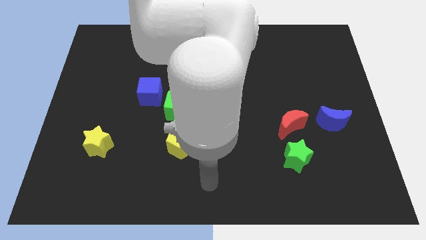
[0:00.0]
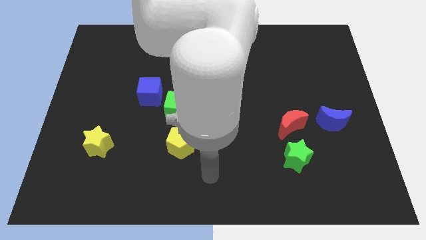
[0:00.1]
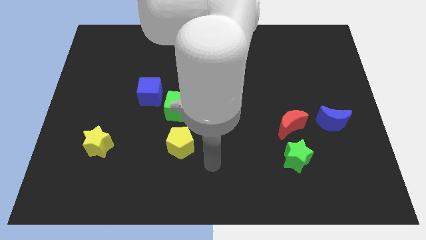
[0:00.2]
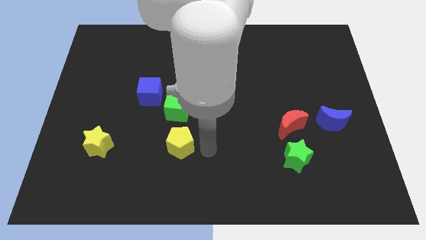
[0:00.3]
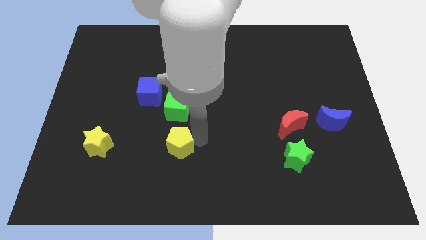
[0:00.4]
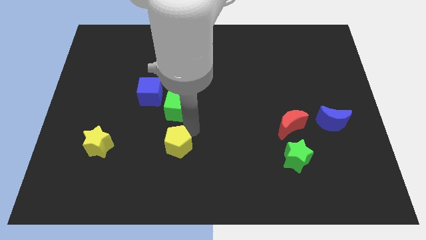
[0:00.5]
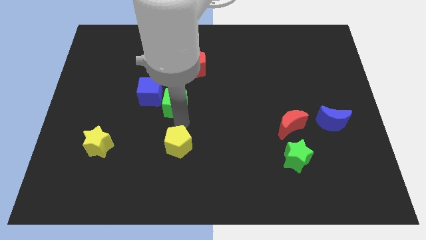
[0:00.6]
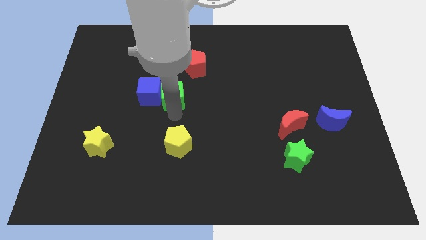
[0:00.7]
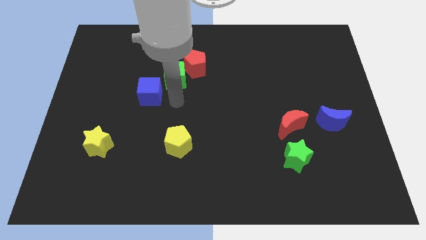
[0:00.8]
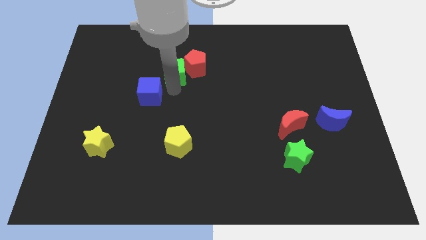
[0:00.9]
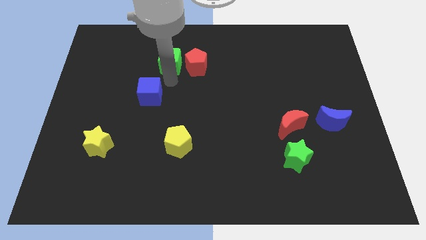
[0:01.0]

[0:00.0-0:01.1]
move the blue cube away from the green cube

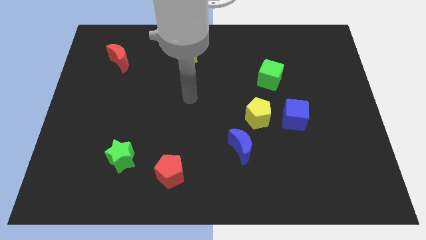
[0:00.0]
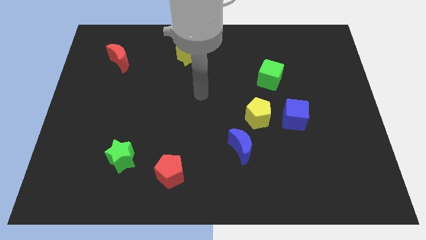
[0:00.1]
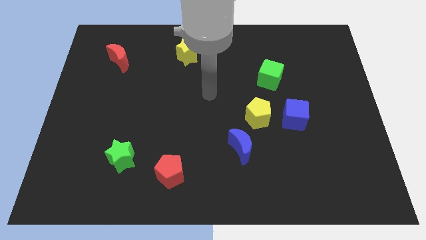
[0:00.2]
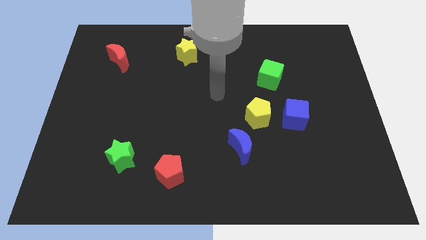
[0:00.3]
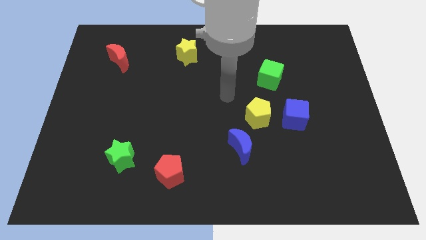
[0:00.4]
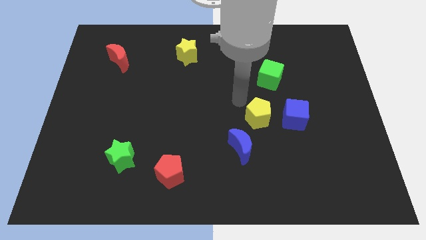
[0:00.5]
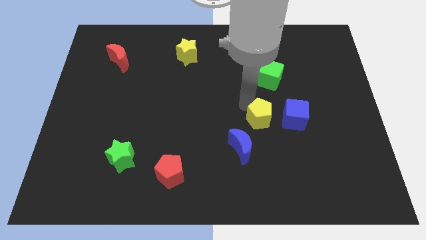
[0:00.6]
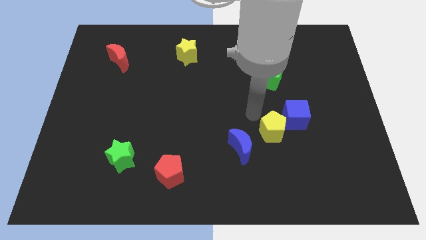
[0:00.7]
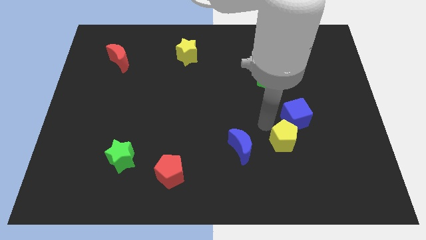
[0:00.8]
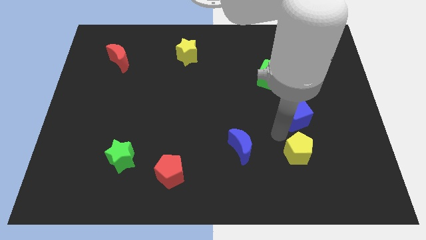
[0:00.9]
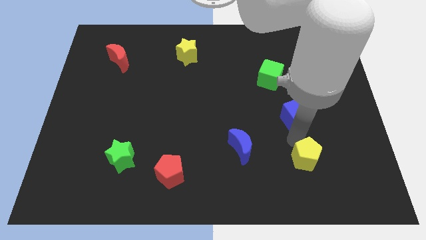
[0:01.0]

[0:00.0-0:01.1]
separate the blue cube from the yellow pentagon

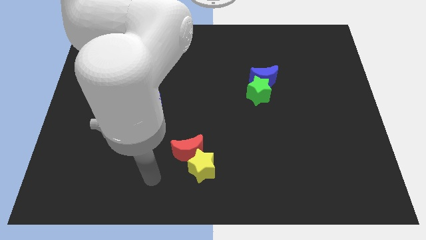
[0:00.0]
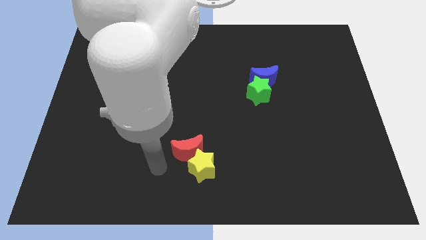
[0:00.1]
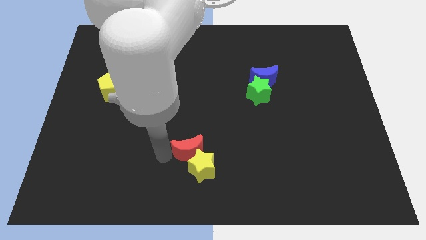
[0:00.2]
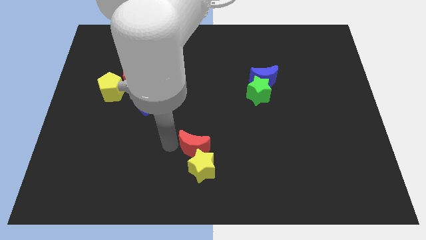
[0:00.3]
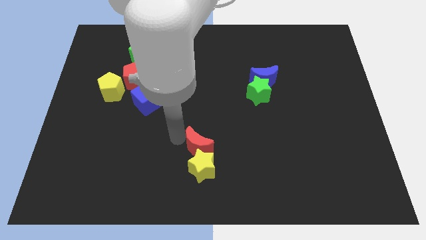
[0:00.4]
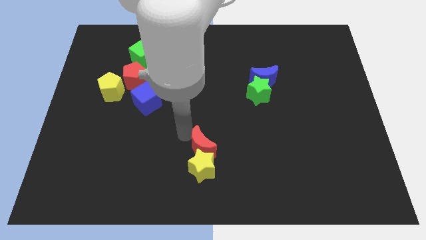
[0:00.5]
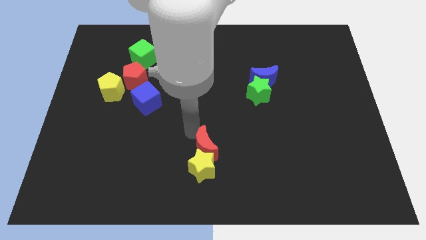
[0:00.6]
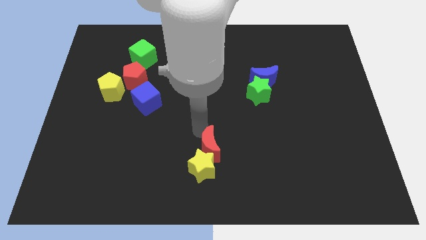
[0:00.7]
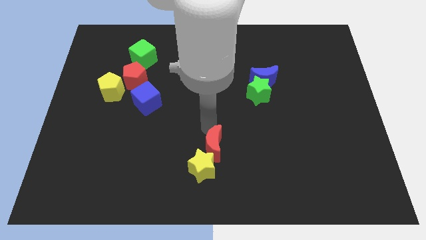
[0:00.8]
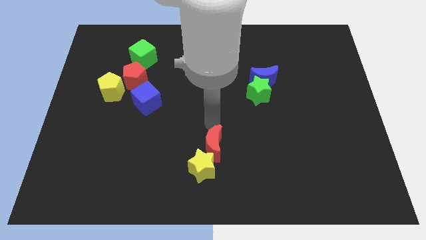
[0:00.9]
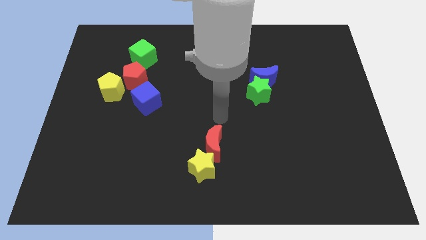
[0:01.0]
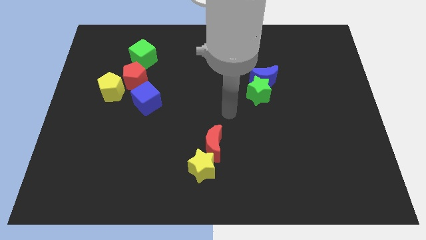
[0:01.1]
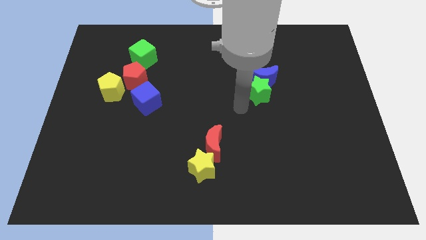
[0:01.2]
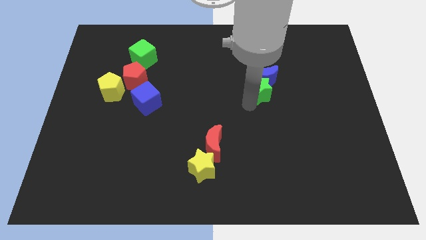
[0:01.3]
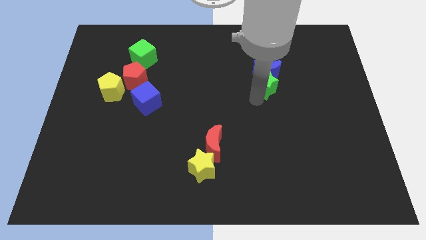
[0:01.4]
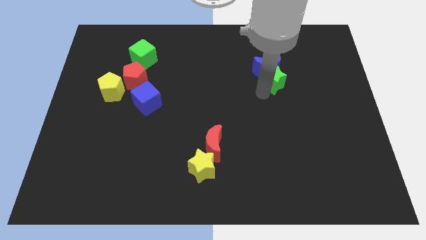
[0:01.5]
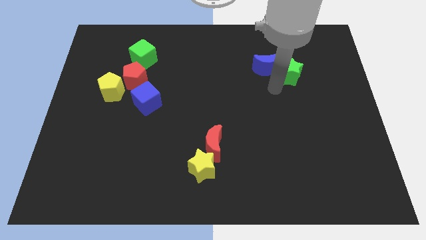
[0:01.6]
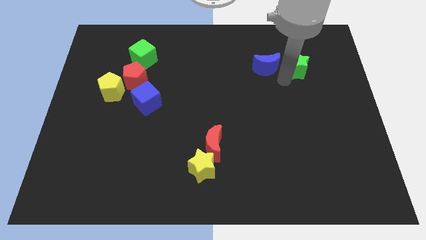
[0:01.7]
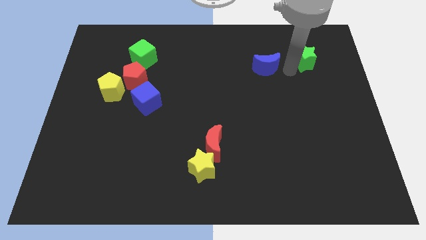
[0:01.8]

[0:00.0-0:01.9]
move the blue moon away from the green star

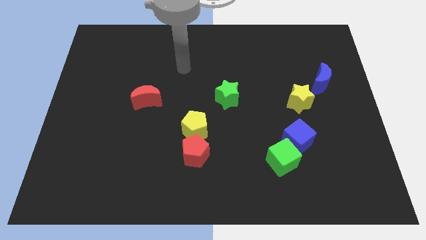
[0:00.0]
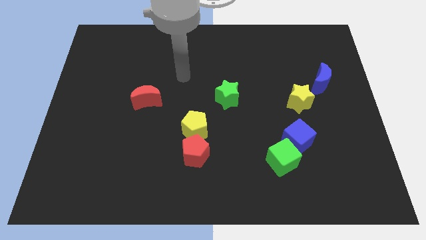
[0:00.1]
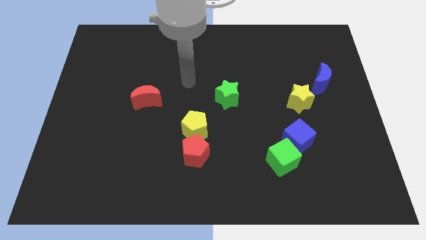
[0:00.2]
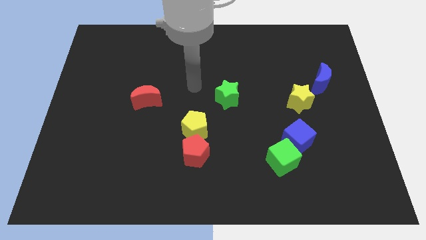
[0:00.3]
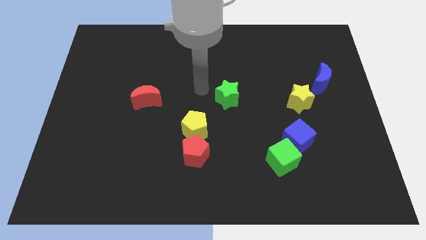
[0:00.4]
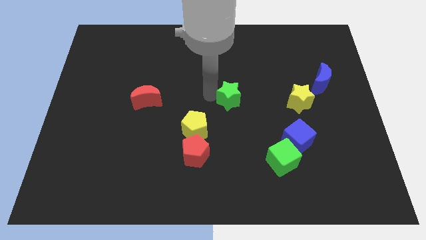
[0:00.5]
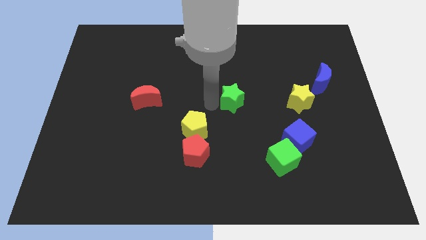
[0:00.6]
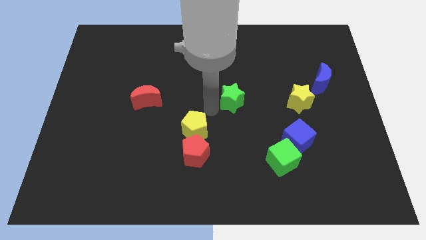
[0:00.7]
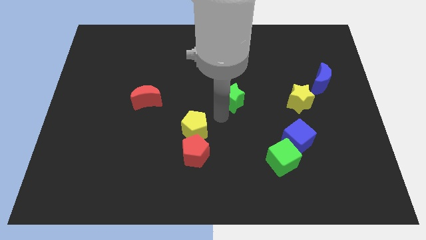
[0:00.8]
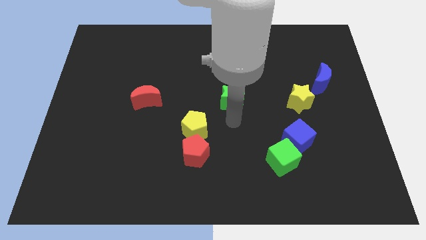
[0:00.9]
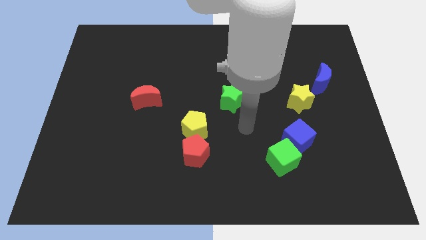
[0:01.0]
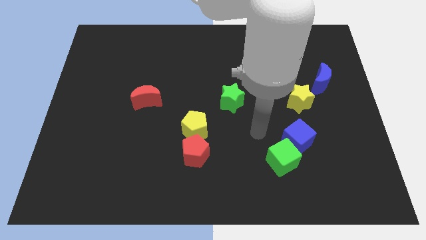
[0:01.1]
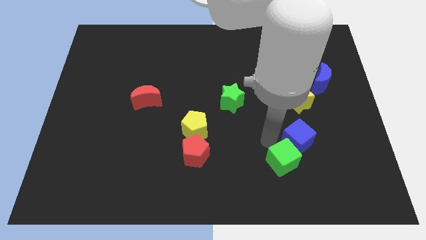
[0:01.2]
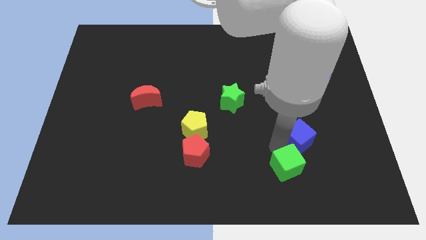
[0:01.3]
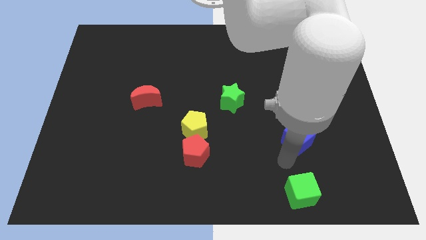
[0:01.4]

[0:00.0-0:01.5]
separate the blue cube from the green cube

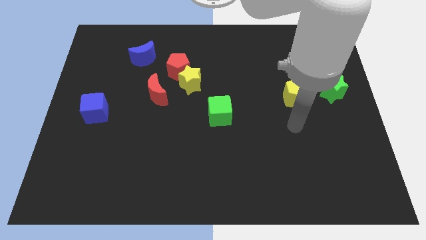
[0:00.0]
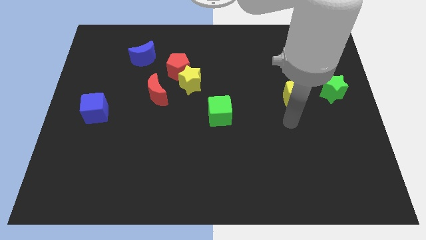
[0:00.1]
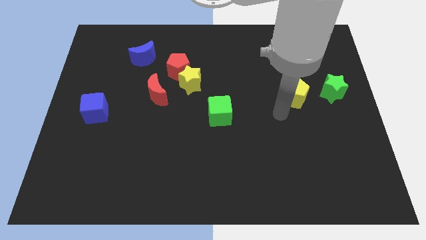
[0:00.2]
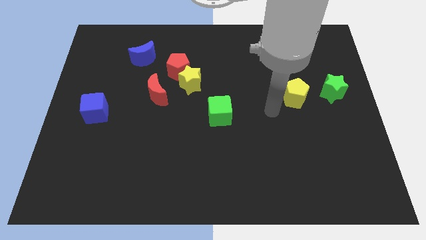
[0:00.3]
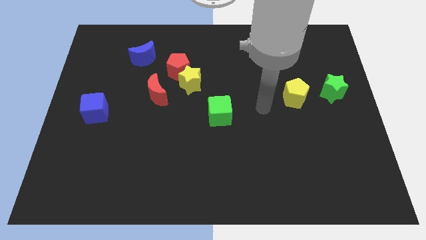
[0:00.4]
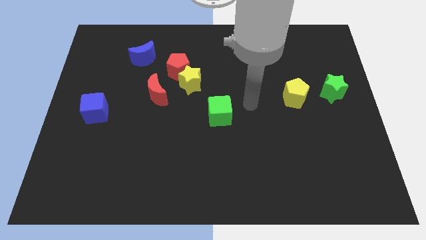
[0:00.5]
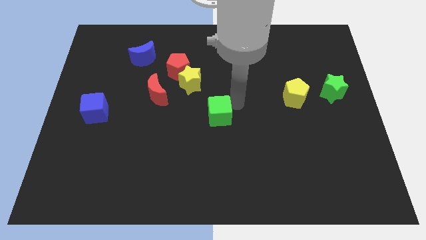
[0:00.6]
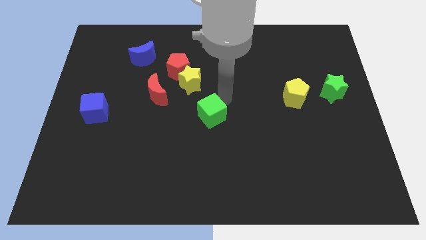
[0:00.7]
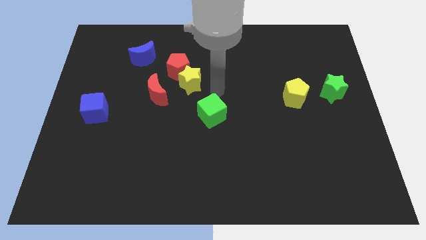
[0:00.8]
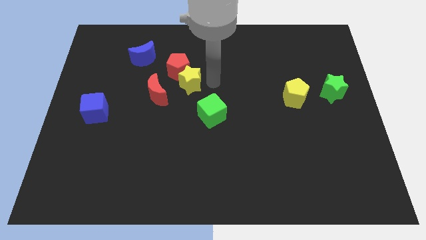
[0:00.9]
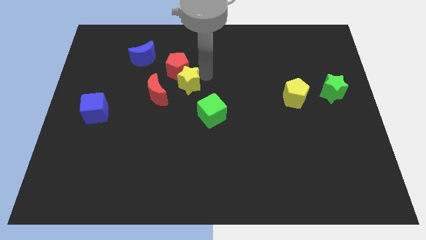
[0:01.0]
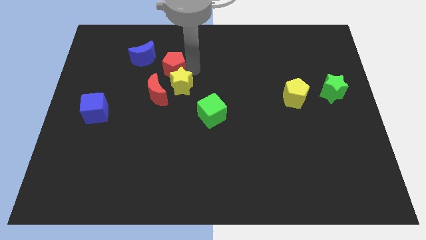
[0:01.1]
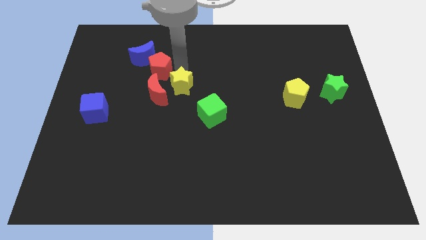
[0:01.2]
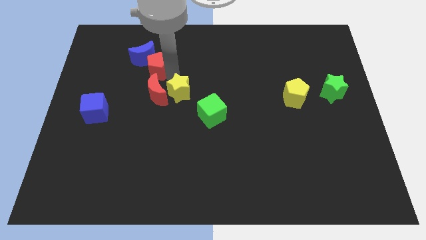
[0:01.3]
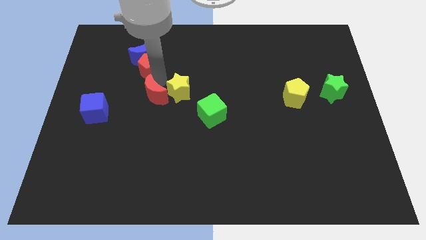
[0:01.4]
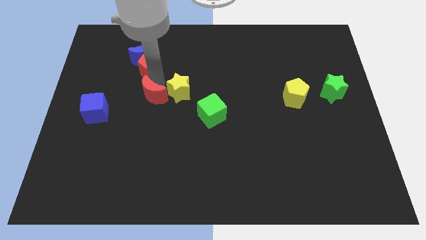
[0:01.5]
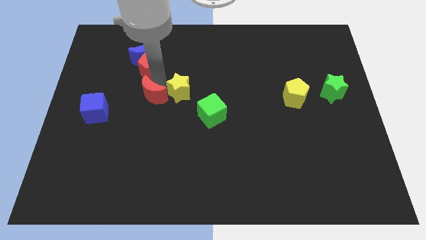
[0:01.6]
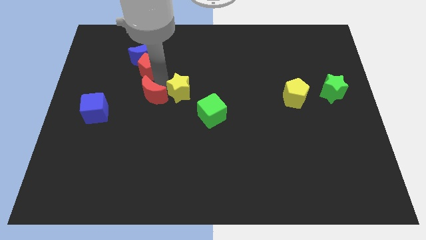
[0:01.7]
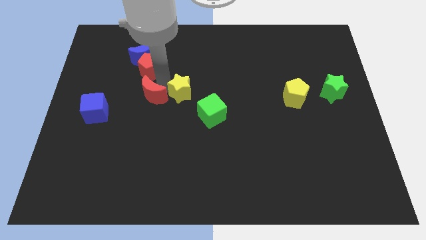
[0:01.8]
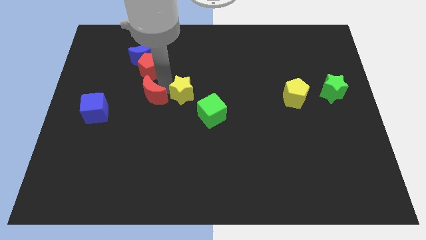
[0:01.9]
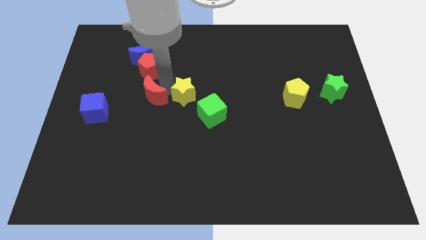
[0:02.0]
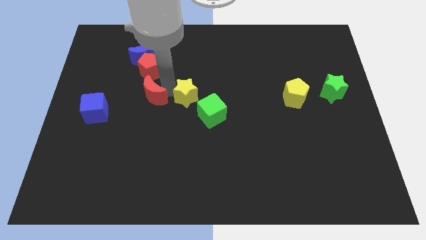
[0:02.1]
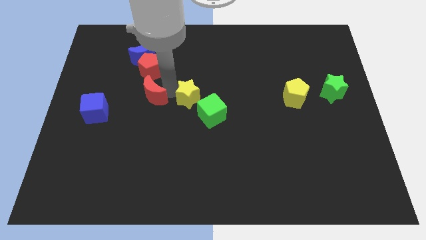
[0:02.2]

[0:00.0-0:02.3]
pull the yellow star apart from the red pentagon and red moon

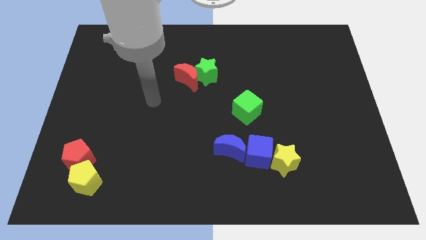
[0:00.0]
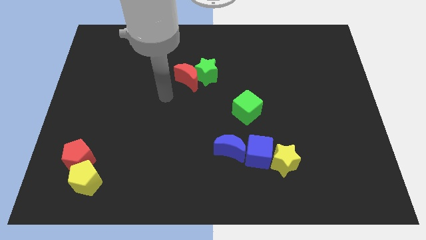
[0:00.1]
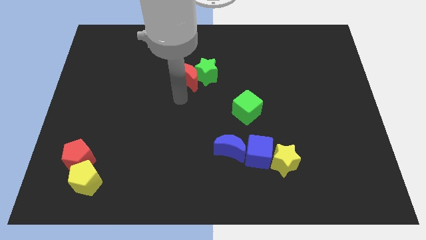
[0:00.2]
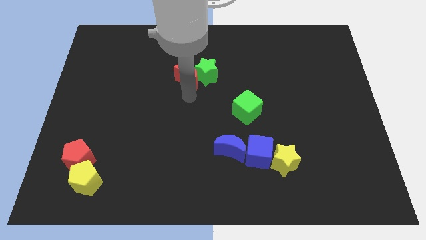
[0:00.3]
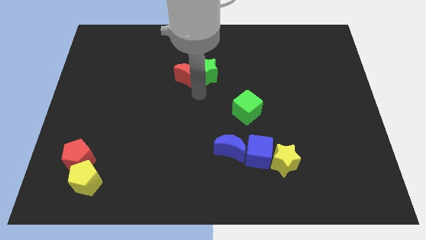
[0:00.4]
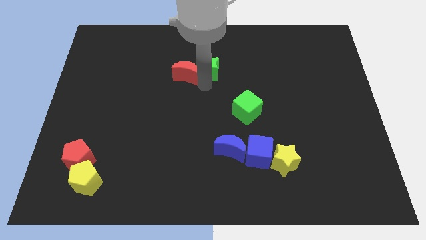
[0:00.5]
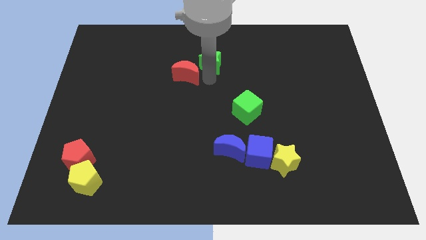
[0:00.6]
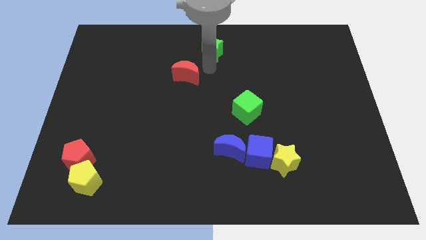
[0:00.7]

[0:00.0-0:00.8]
separate the red moon from the green star

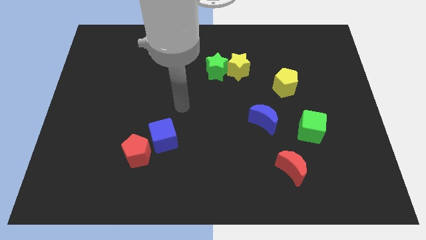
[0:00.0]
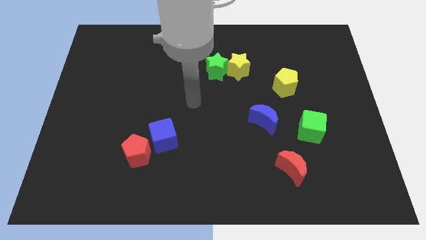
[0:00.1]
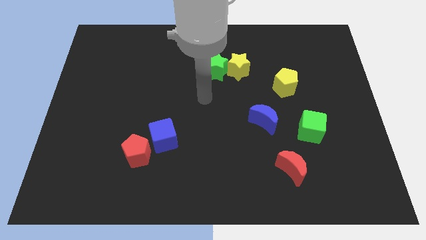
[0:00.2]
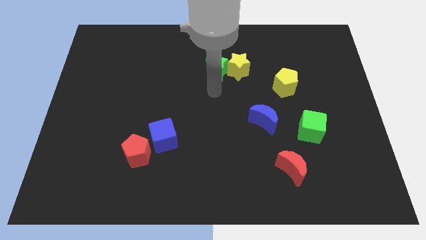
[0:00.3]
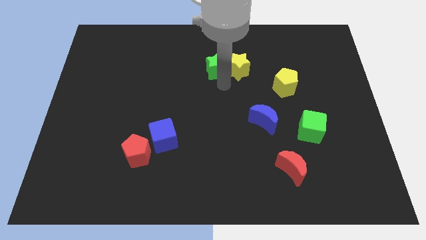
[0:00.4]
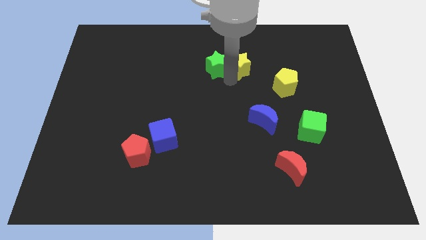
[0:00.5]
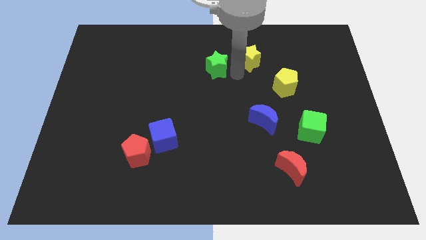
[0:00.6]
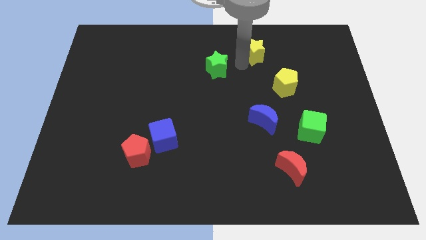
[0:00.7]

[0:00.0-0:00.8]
pull the green star apart from the yellow star
